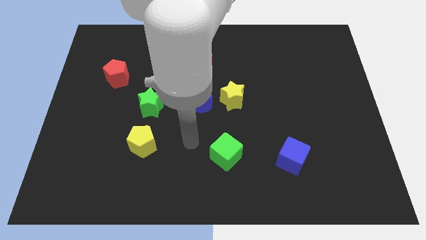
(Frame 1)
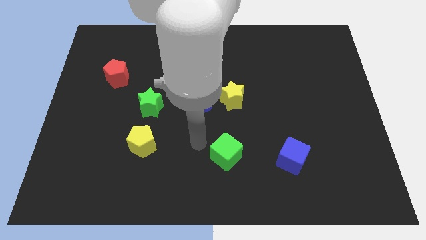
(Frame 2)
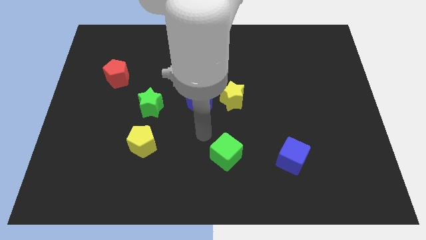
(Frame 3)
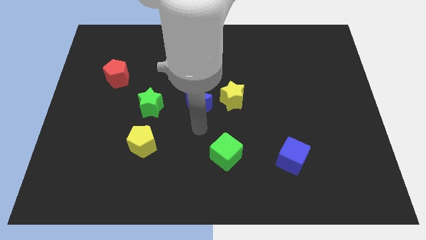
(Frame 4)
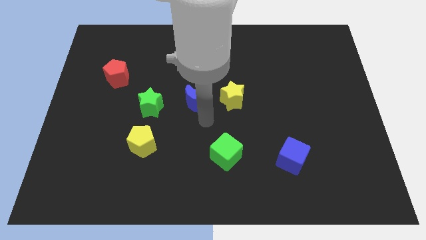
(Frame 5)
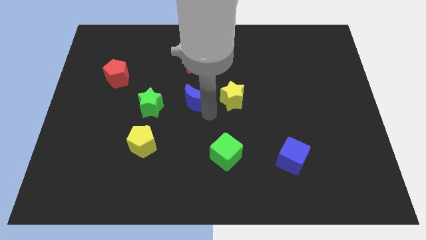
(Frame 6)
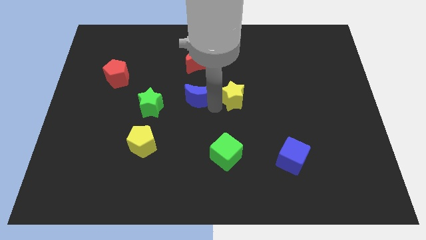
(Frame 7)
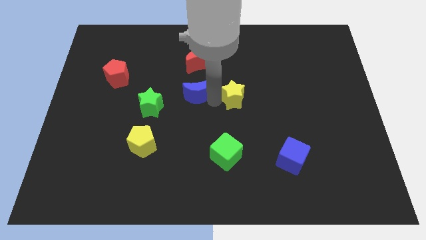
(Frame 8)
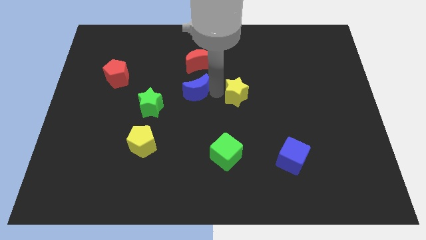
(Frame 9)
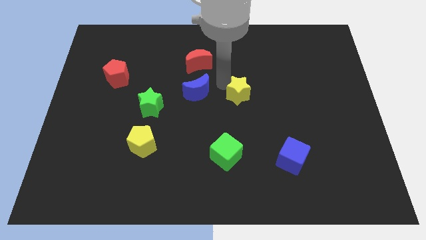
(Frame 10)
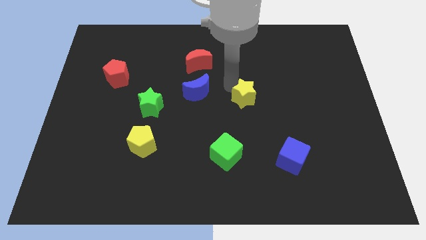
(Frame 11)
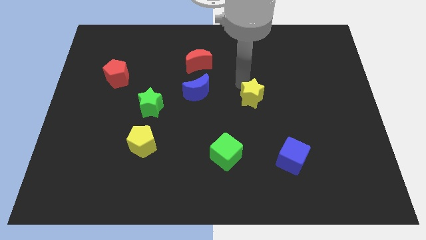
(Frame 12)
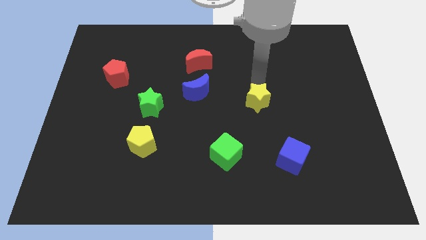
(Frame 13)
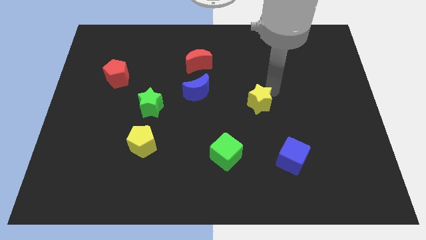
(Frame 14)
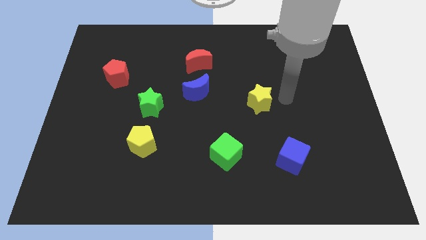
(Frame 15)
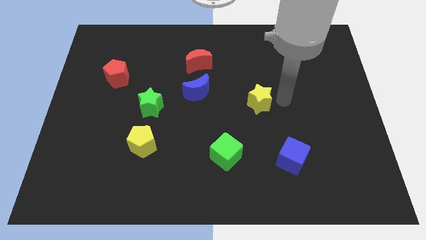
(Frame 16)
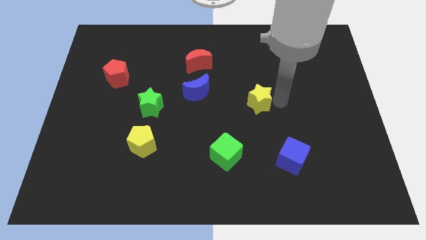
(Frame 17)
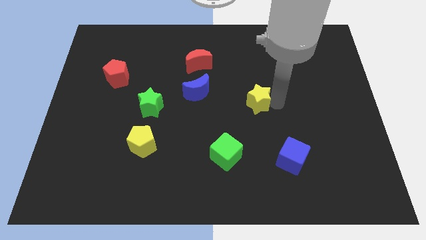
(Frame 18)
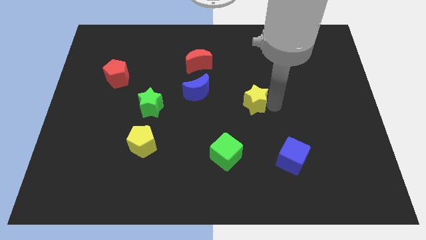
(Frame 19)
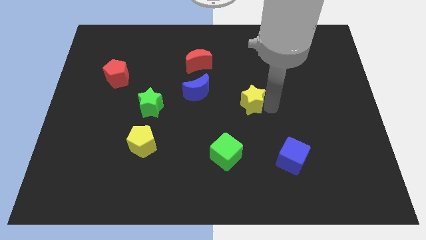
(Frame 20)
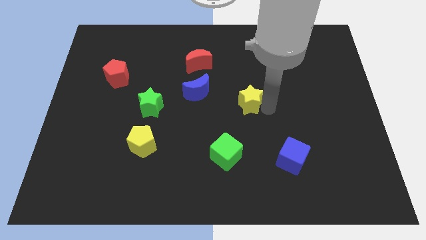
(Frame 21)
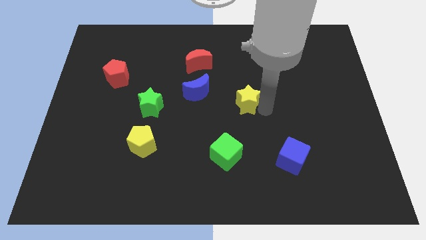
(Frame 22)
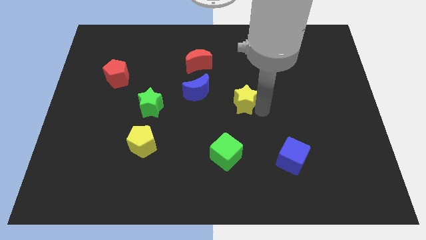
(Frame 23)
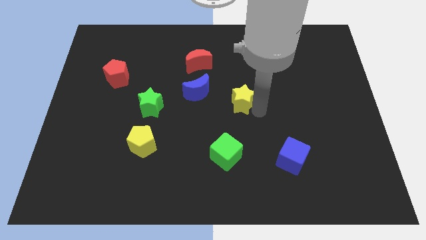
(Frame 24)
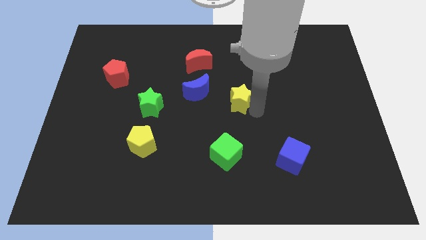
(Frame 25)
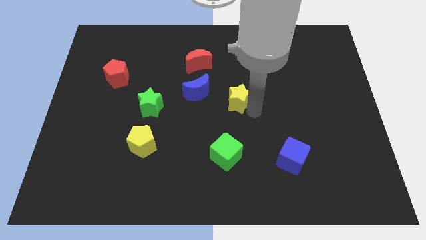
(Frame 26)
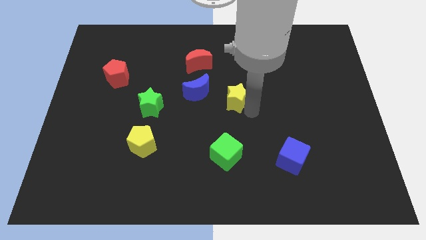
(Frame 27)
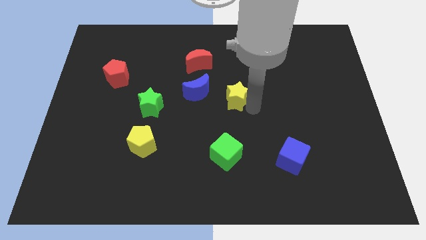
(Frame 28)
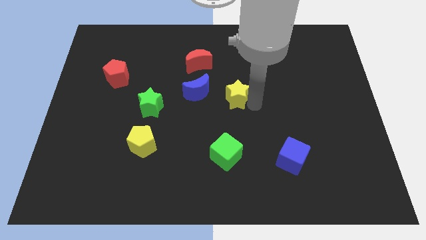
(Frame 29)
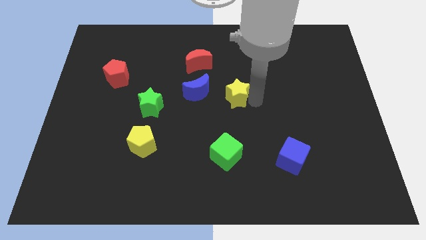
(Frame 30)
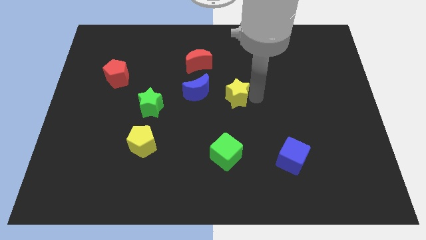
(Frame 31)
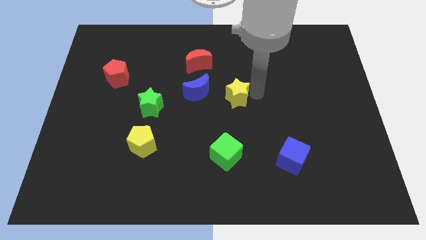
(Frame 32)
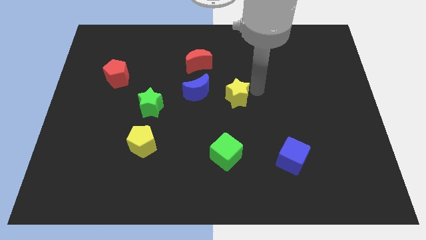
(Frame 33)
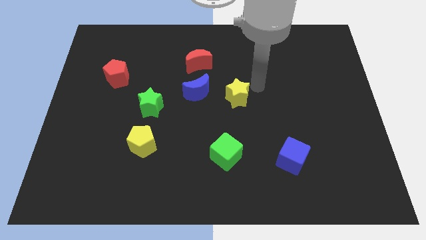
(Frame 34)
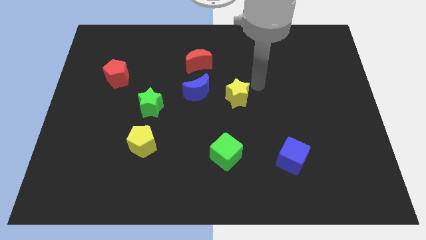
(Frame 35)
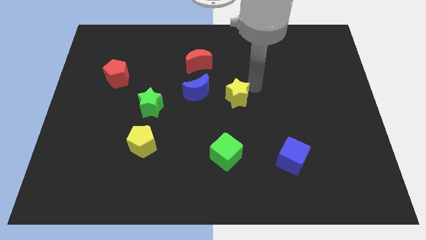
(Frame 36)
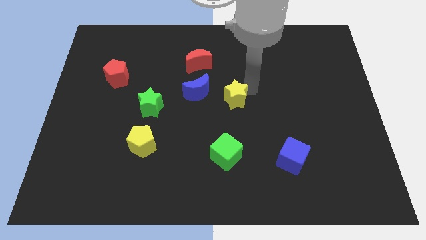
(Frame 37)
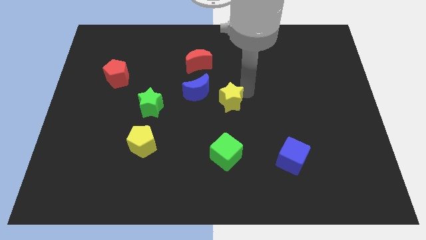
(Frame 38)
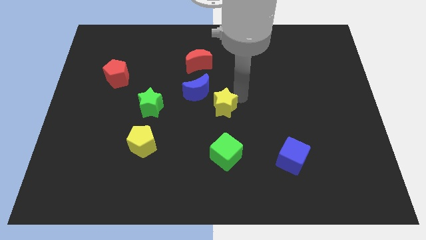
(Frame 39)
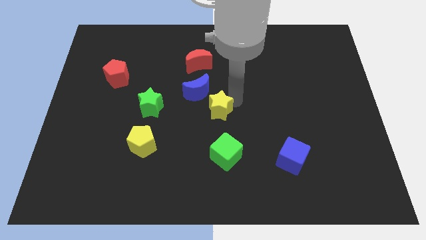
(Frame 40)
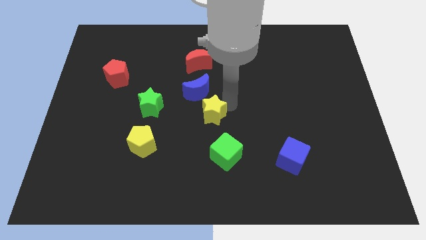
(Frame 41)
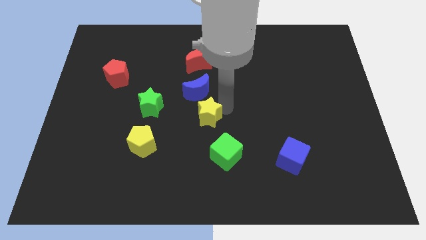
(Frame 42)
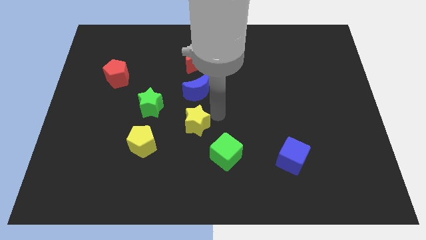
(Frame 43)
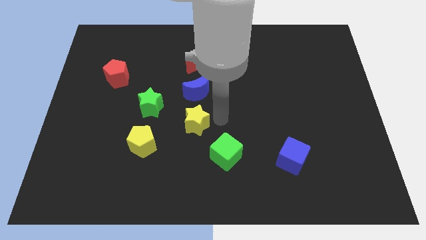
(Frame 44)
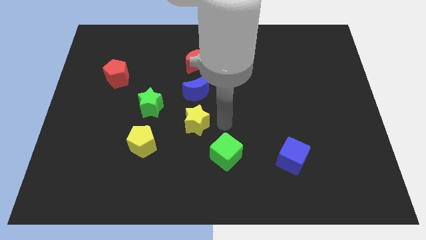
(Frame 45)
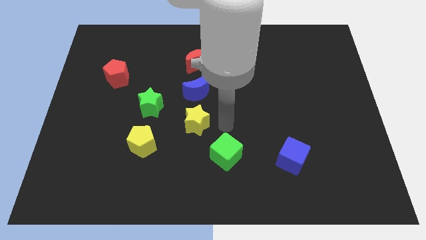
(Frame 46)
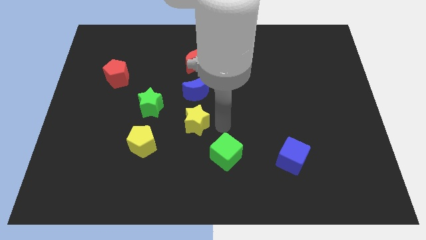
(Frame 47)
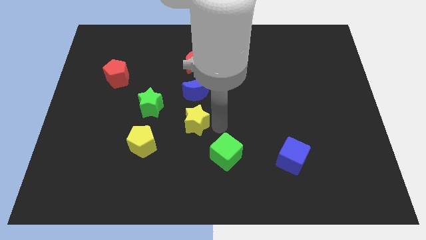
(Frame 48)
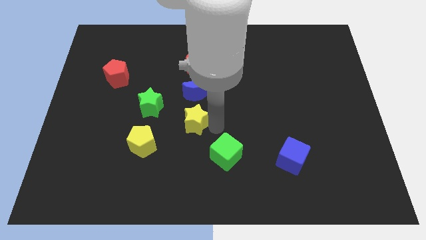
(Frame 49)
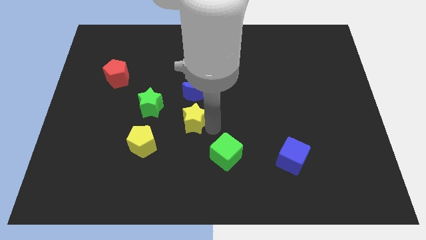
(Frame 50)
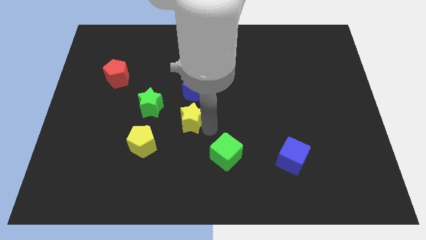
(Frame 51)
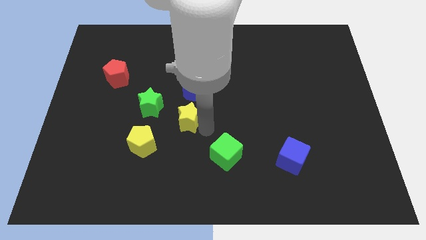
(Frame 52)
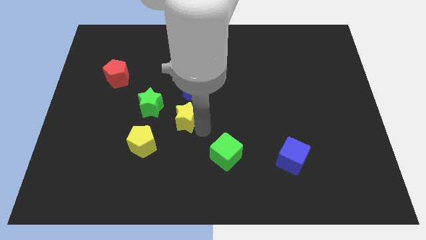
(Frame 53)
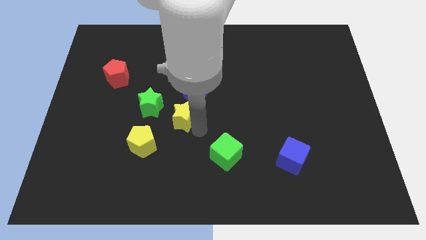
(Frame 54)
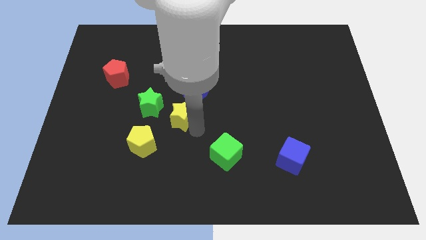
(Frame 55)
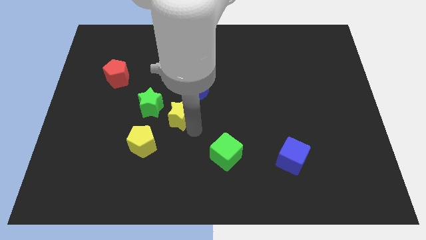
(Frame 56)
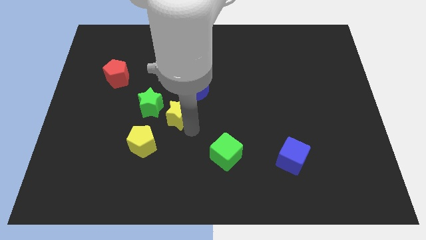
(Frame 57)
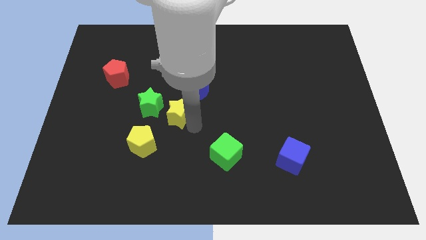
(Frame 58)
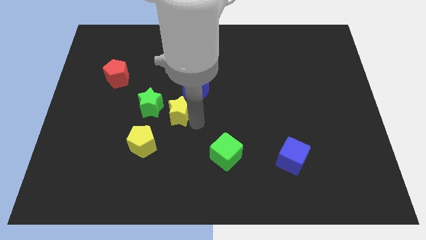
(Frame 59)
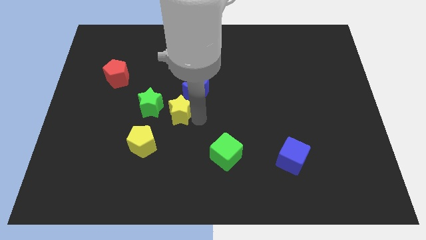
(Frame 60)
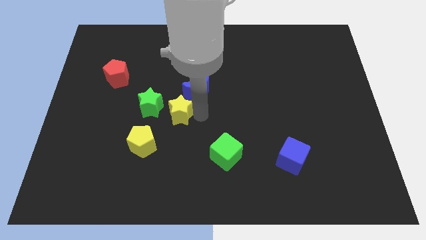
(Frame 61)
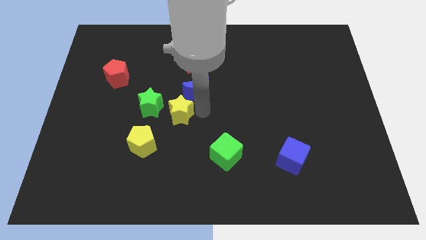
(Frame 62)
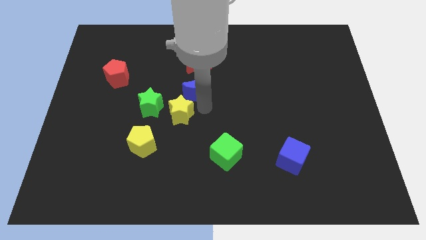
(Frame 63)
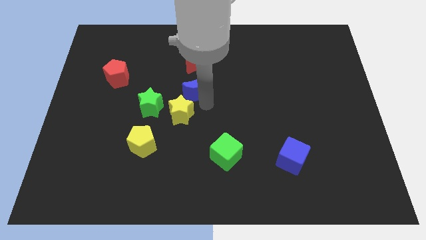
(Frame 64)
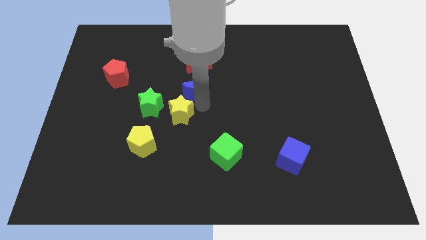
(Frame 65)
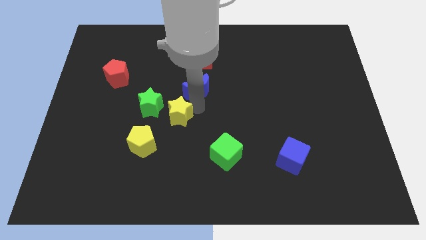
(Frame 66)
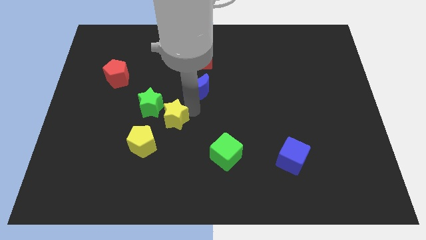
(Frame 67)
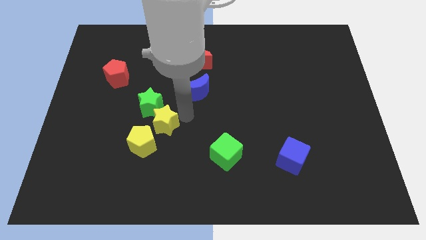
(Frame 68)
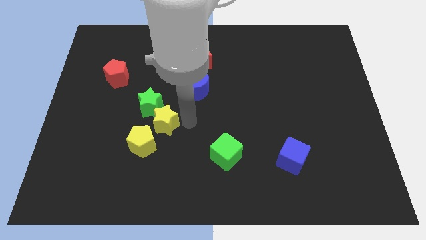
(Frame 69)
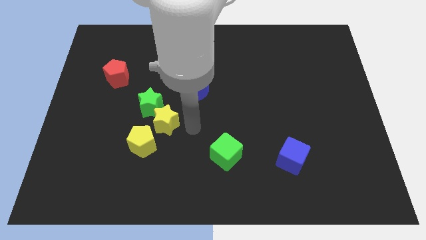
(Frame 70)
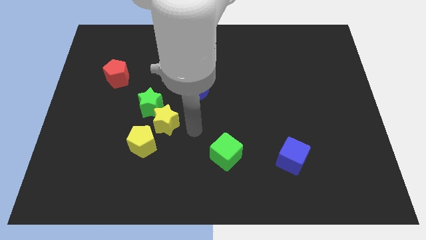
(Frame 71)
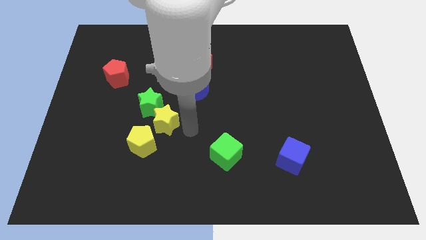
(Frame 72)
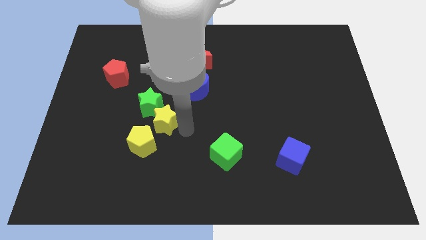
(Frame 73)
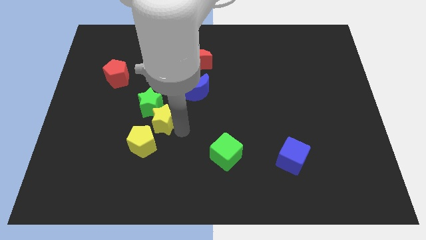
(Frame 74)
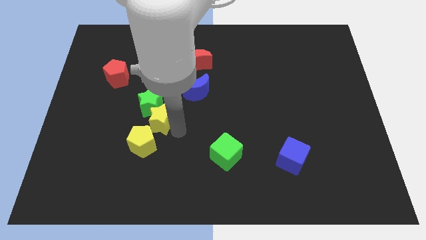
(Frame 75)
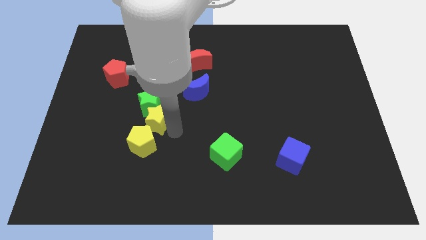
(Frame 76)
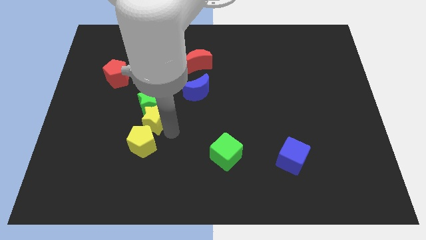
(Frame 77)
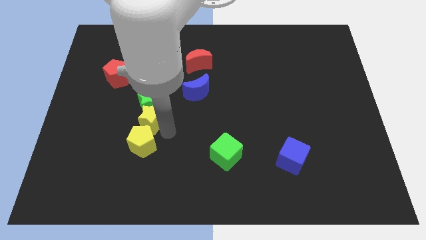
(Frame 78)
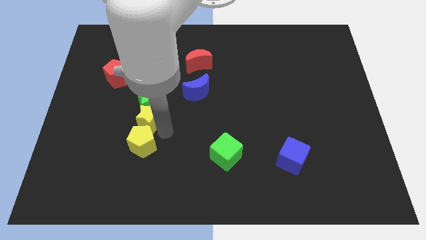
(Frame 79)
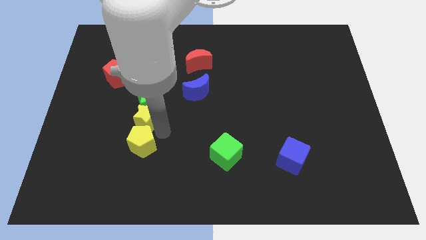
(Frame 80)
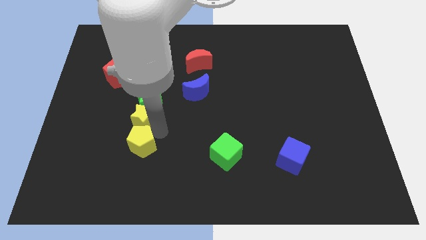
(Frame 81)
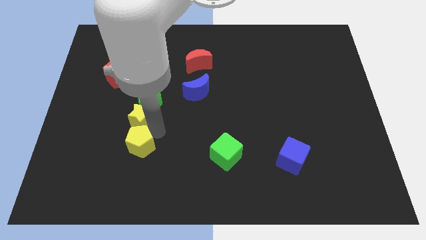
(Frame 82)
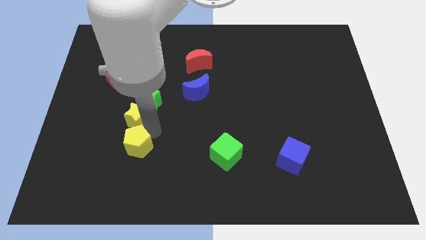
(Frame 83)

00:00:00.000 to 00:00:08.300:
move the yellow star left
